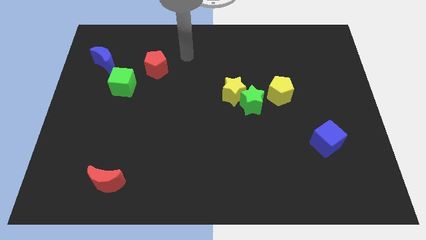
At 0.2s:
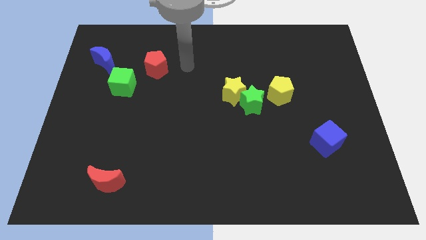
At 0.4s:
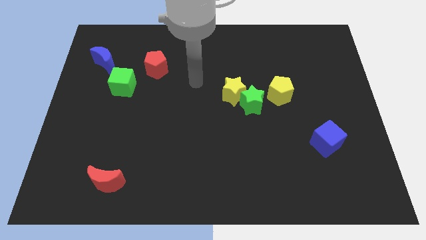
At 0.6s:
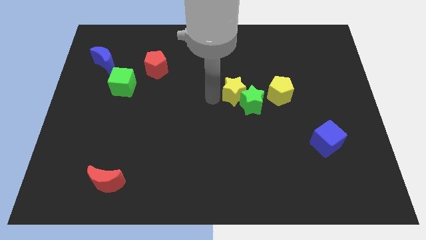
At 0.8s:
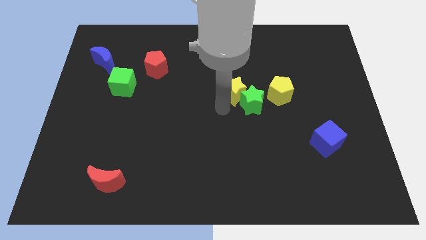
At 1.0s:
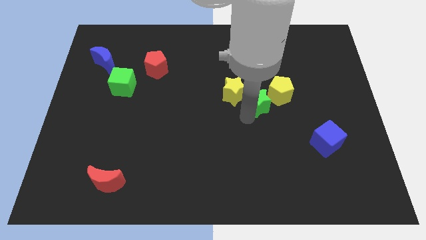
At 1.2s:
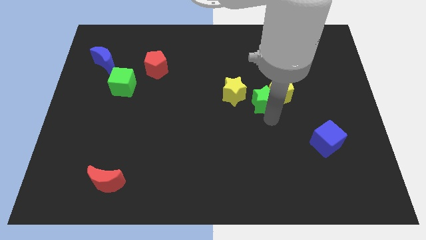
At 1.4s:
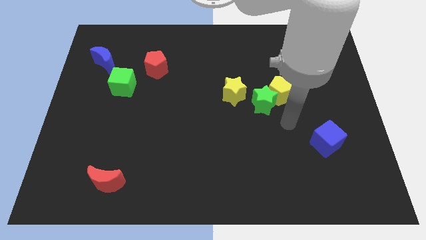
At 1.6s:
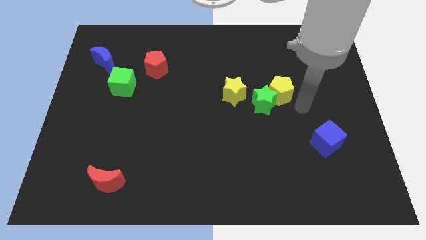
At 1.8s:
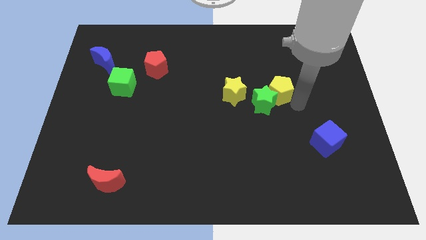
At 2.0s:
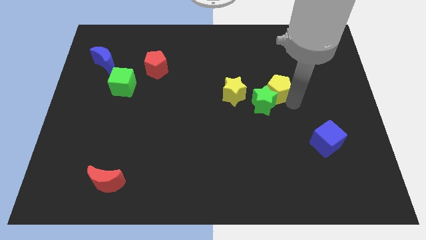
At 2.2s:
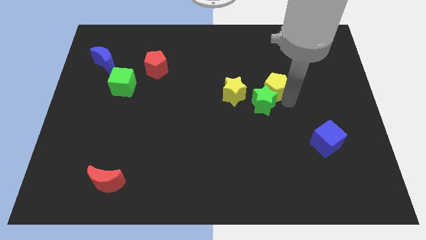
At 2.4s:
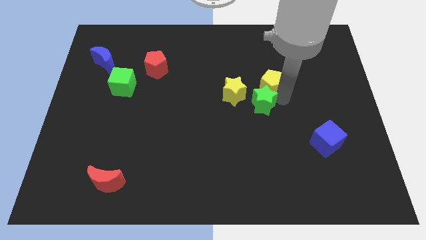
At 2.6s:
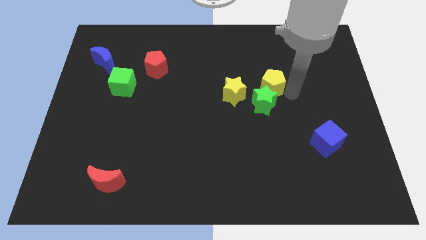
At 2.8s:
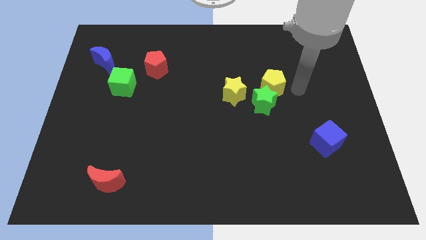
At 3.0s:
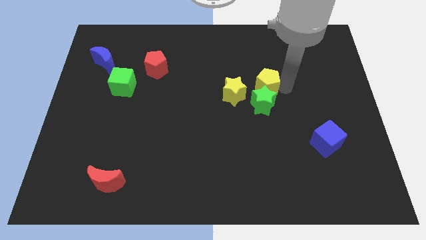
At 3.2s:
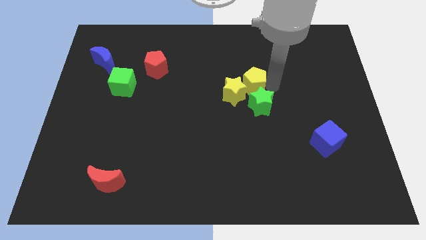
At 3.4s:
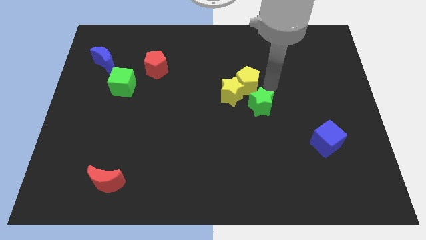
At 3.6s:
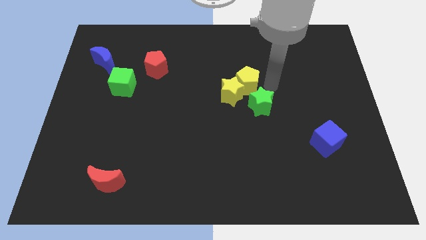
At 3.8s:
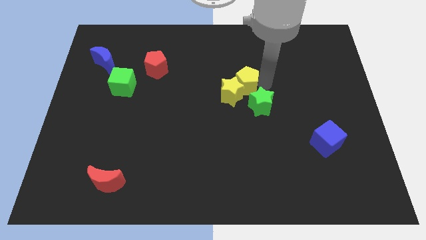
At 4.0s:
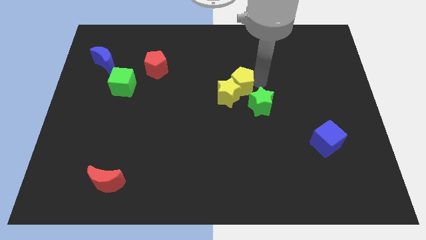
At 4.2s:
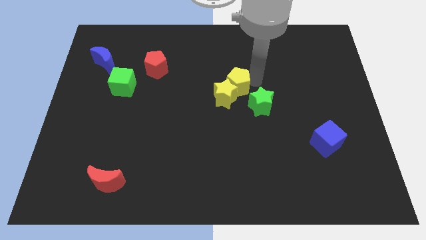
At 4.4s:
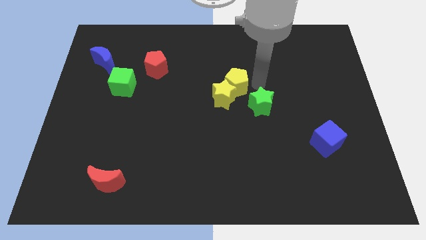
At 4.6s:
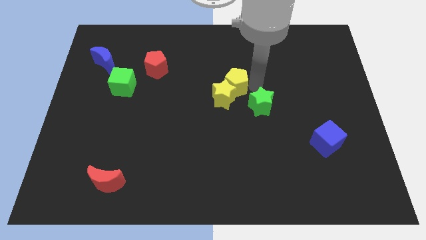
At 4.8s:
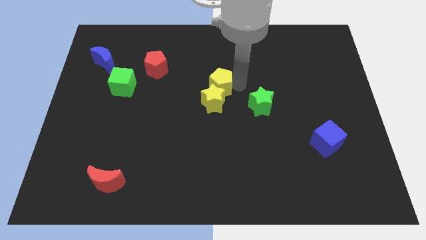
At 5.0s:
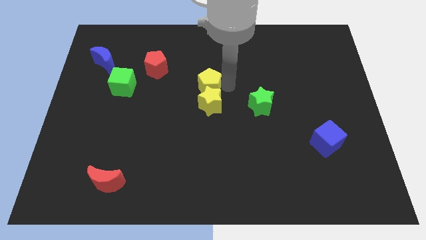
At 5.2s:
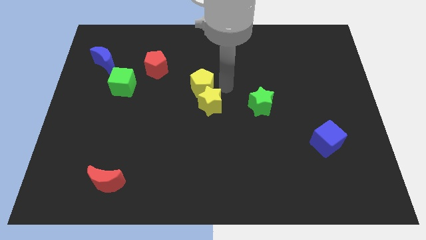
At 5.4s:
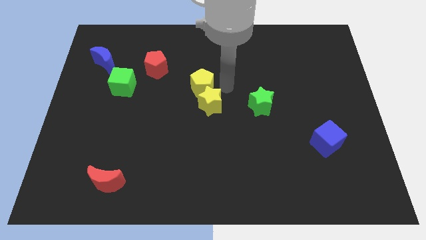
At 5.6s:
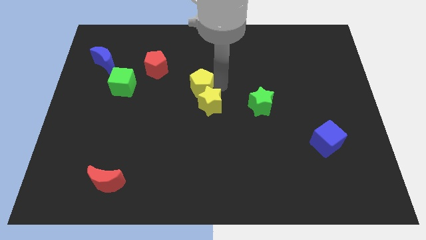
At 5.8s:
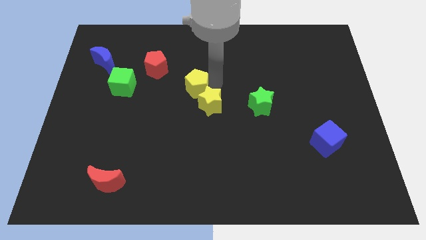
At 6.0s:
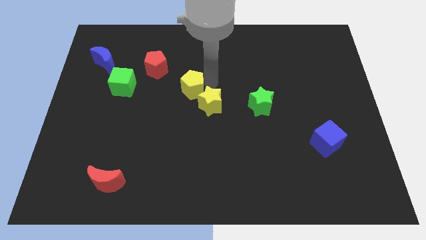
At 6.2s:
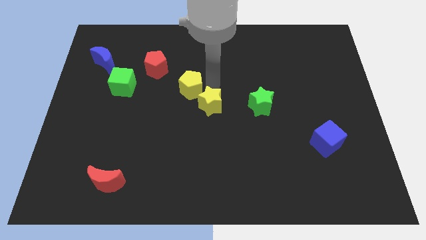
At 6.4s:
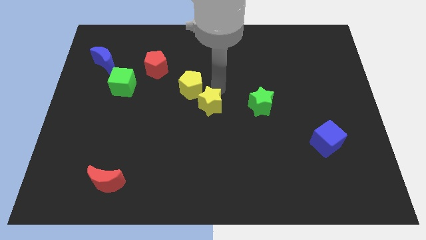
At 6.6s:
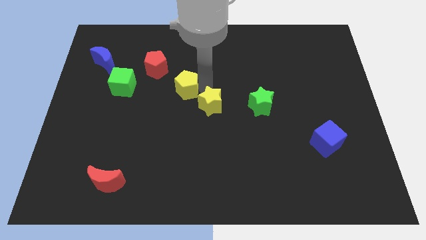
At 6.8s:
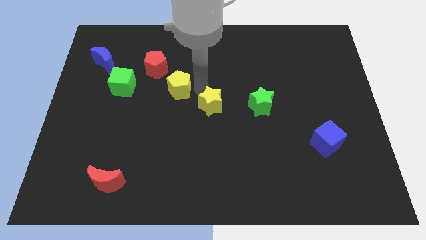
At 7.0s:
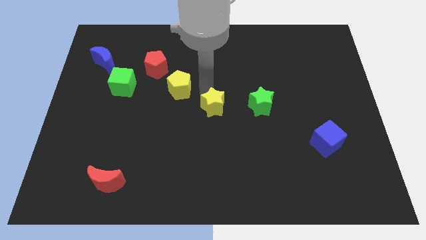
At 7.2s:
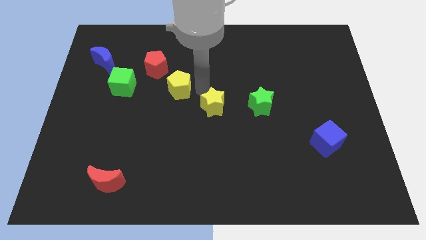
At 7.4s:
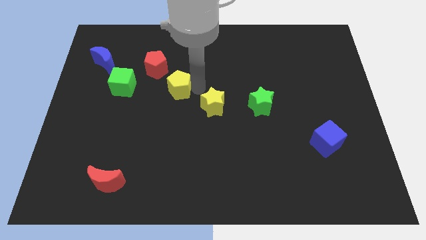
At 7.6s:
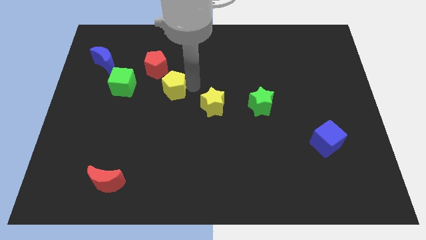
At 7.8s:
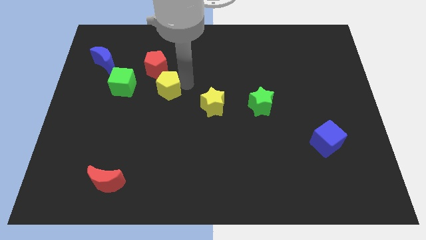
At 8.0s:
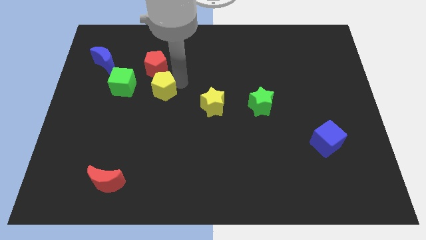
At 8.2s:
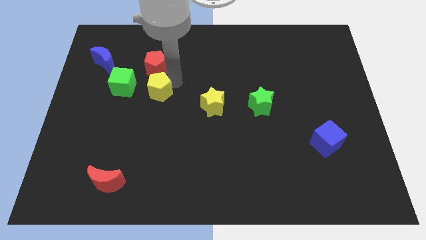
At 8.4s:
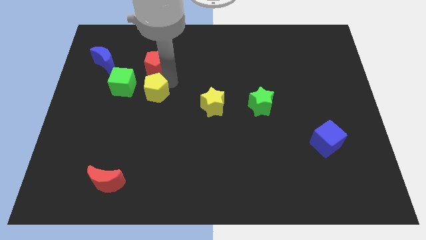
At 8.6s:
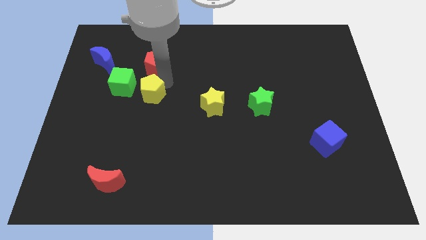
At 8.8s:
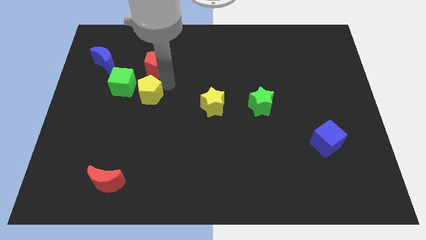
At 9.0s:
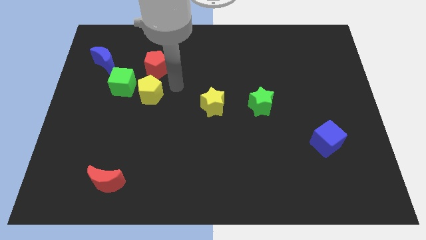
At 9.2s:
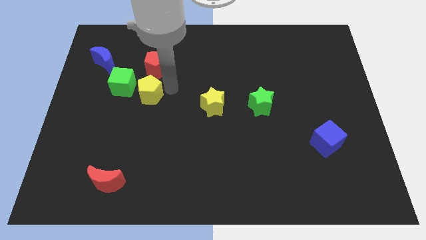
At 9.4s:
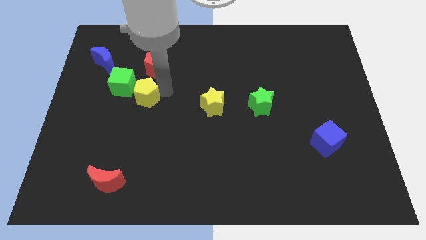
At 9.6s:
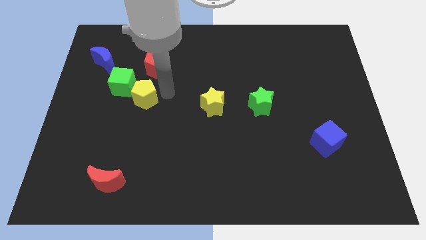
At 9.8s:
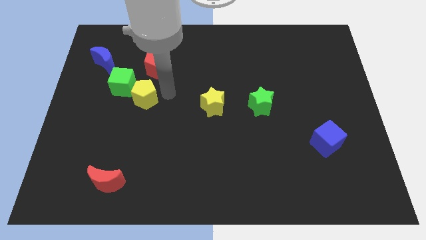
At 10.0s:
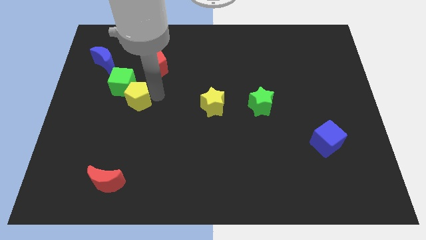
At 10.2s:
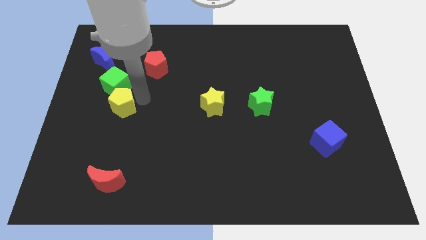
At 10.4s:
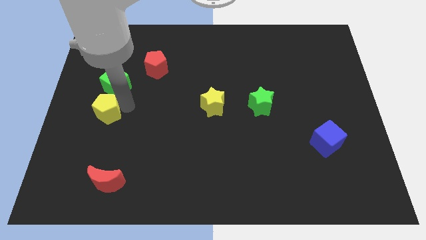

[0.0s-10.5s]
put the yellow pentagon diagonally down and to the left of the green cube

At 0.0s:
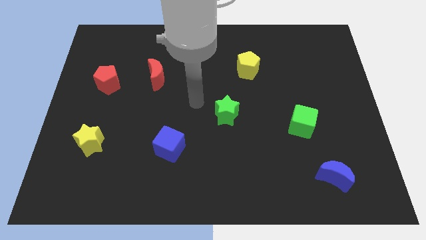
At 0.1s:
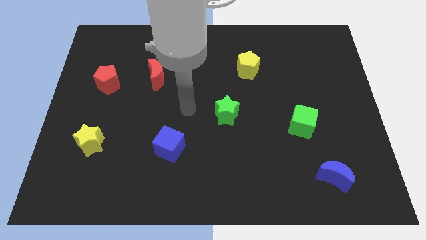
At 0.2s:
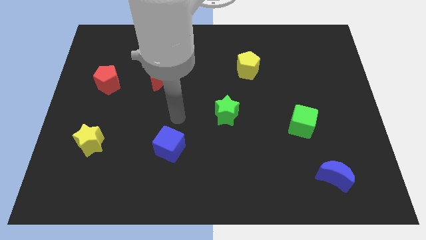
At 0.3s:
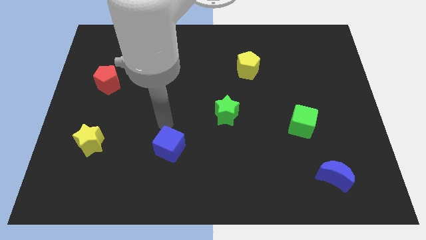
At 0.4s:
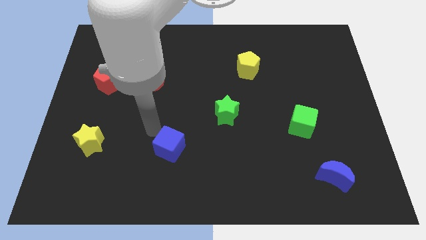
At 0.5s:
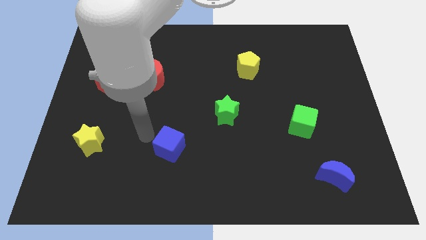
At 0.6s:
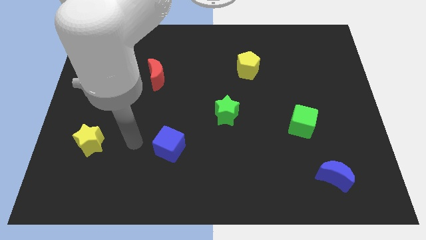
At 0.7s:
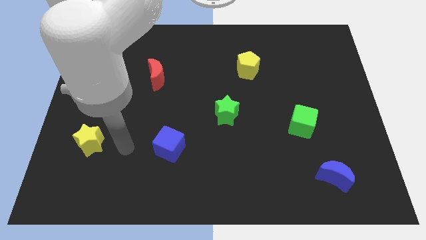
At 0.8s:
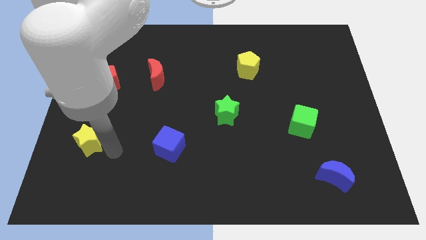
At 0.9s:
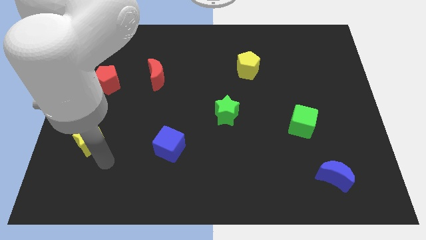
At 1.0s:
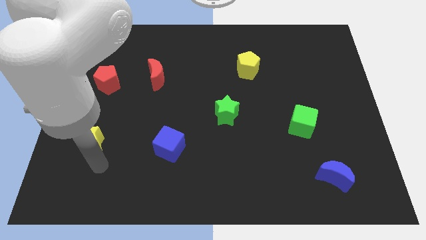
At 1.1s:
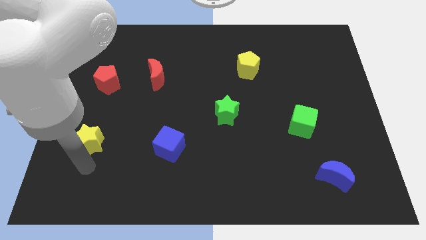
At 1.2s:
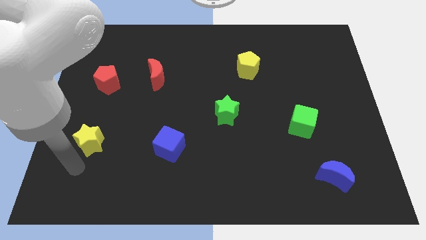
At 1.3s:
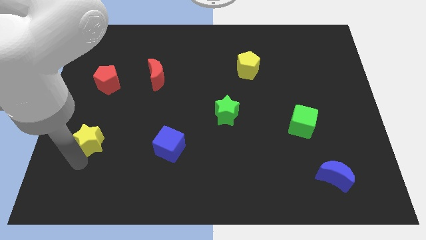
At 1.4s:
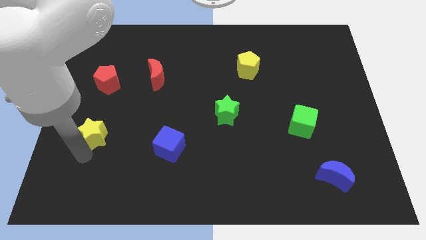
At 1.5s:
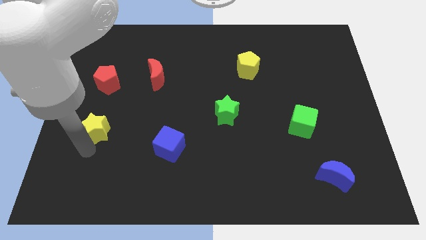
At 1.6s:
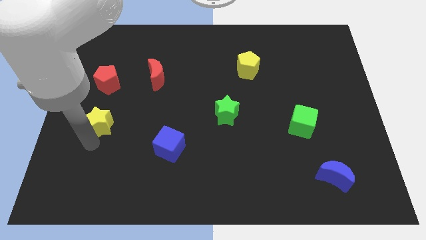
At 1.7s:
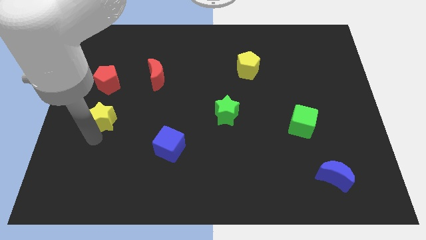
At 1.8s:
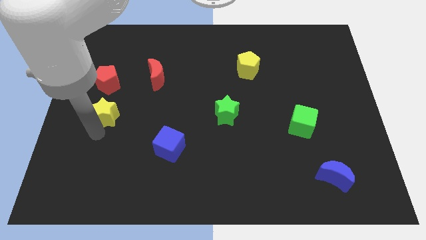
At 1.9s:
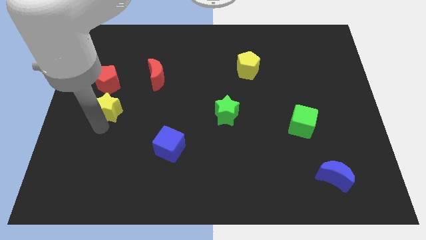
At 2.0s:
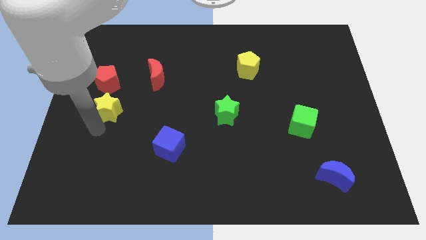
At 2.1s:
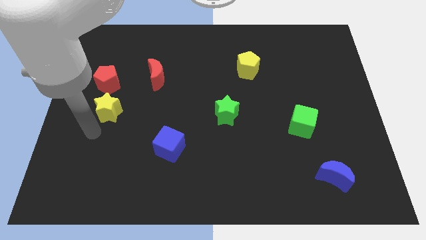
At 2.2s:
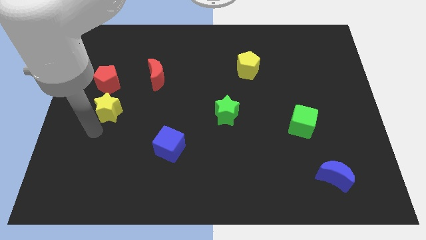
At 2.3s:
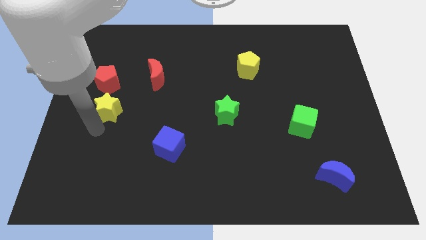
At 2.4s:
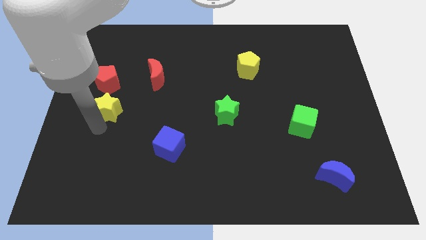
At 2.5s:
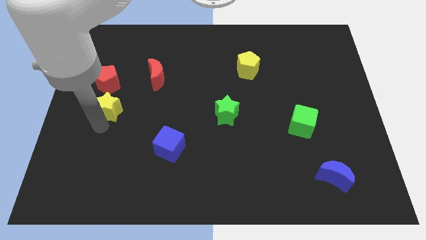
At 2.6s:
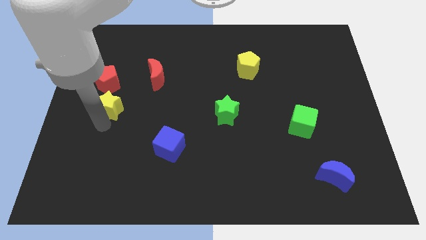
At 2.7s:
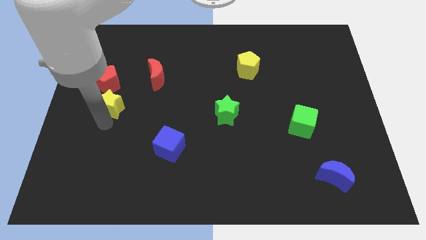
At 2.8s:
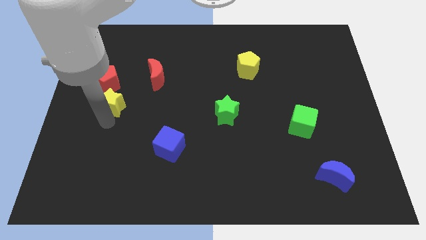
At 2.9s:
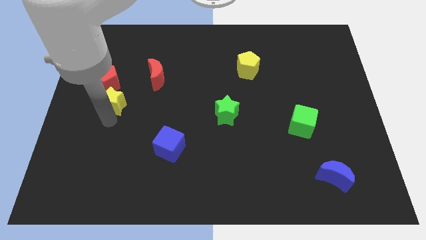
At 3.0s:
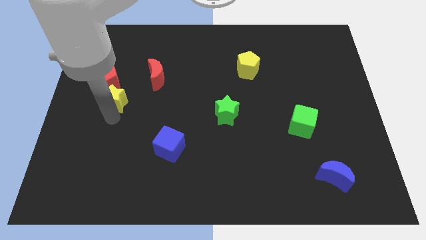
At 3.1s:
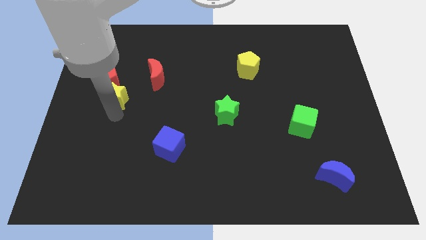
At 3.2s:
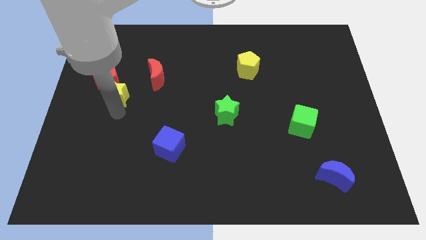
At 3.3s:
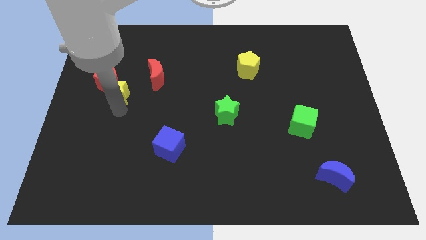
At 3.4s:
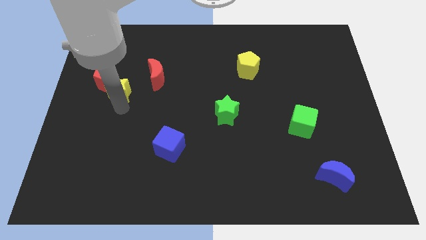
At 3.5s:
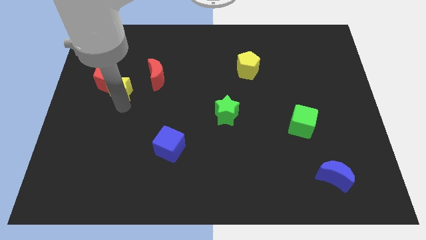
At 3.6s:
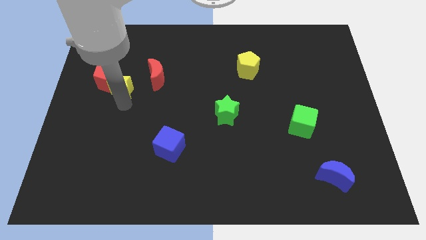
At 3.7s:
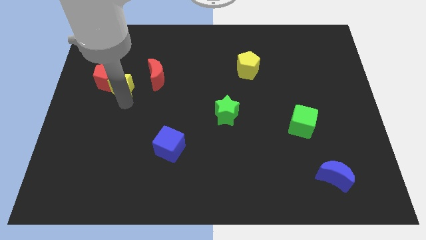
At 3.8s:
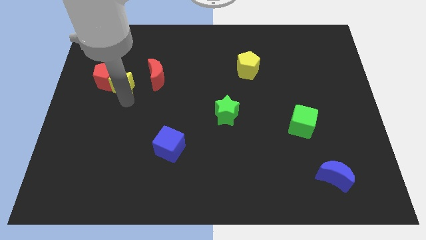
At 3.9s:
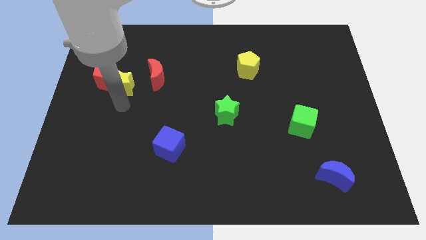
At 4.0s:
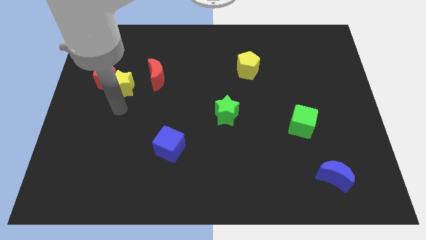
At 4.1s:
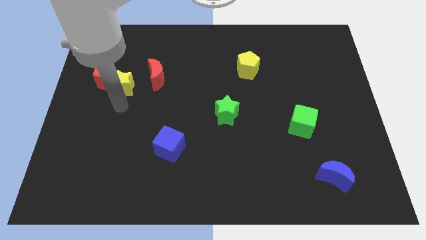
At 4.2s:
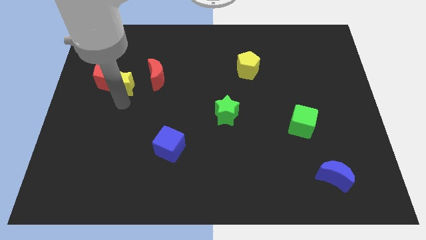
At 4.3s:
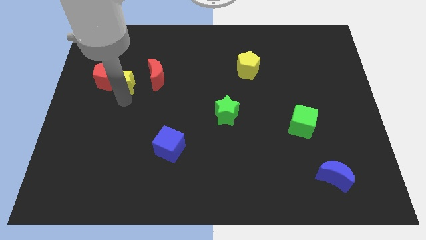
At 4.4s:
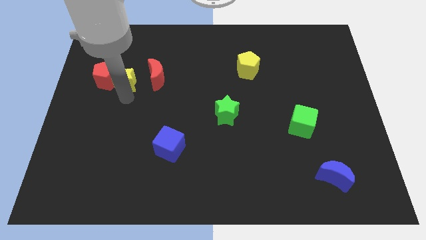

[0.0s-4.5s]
slide the yellow star to the top right side of the red pentagon
